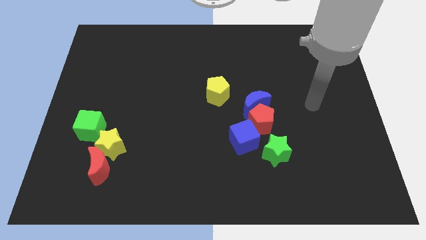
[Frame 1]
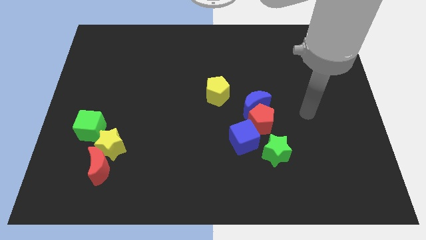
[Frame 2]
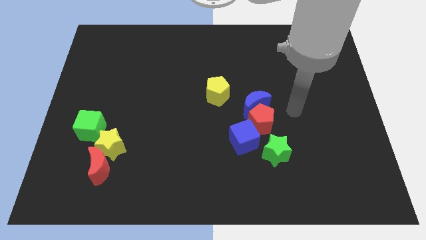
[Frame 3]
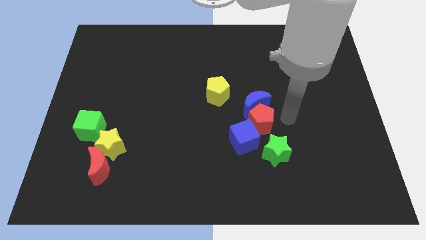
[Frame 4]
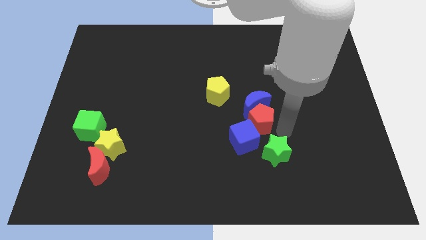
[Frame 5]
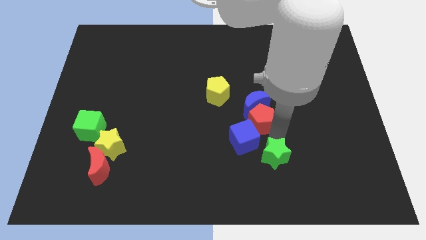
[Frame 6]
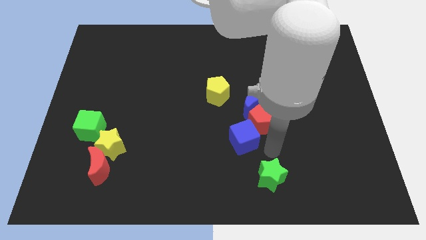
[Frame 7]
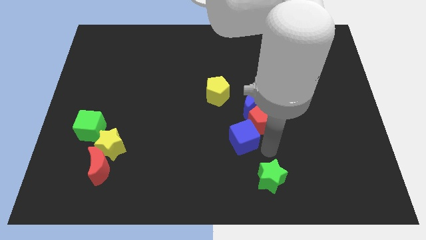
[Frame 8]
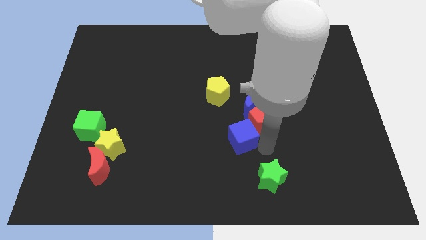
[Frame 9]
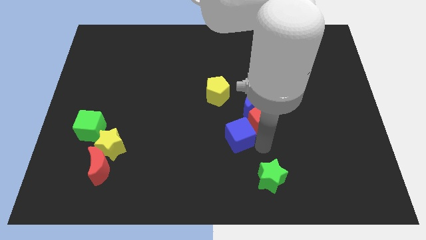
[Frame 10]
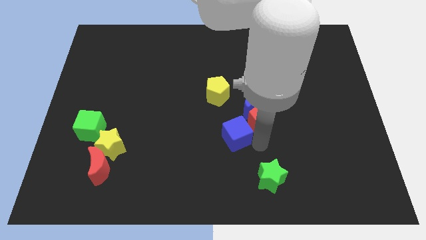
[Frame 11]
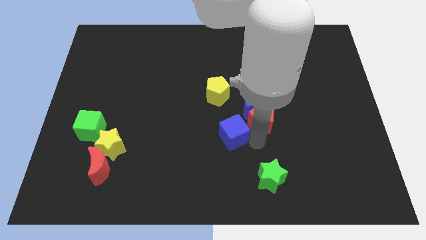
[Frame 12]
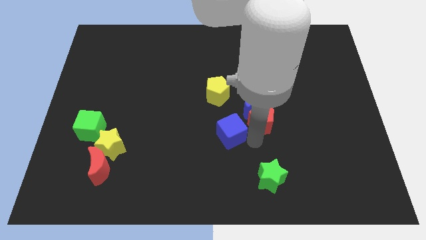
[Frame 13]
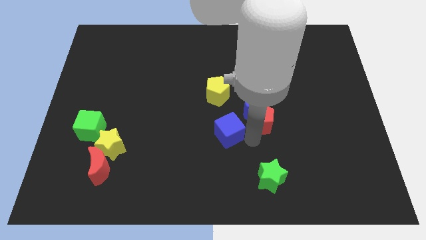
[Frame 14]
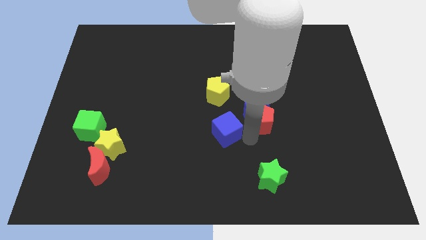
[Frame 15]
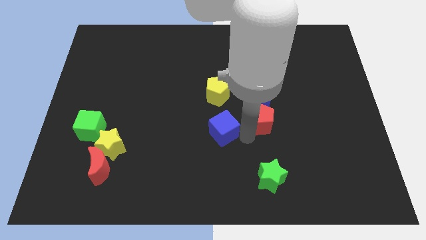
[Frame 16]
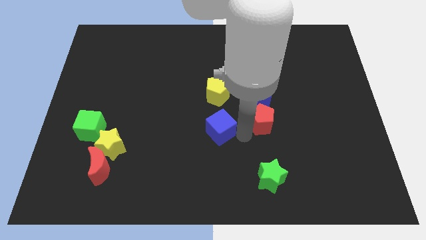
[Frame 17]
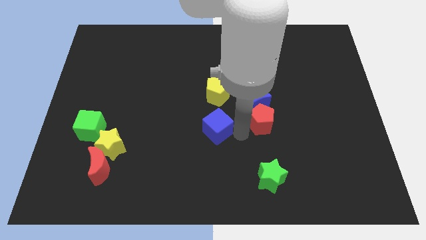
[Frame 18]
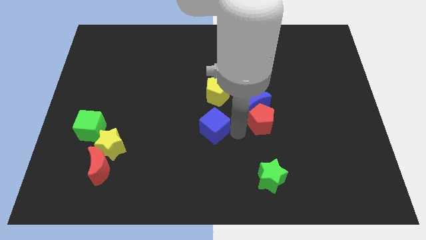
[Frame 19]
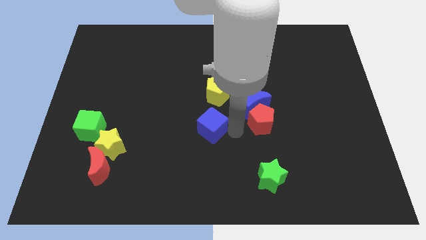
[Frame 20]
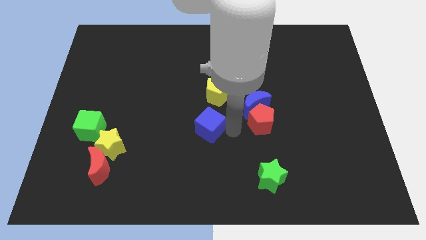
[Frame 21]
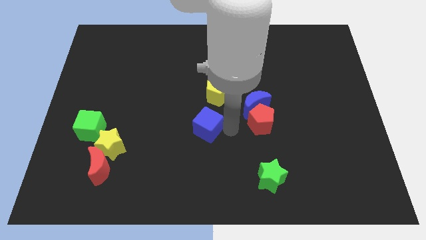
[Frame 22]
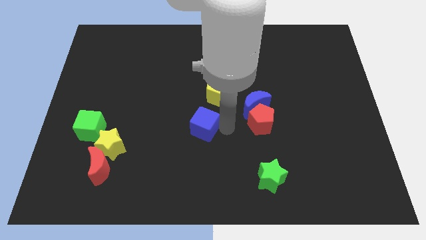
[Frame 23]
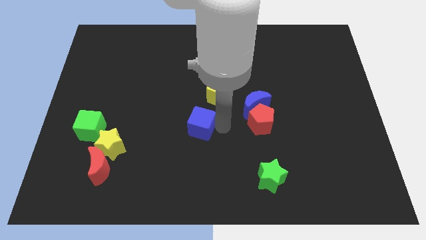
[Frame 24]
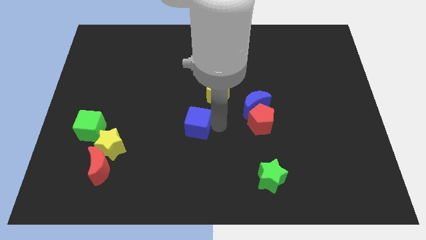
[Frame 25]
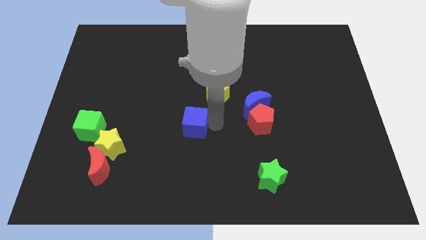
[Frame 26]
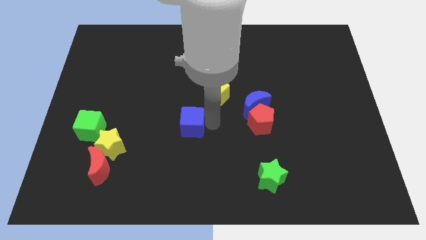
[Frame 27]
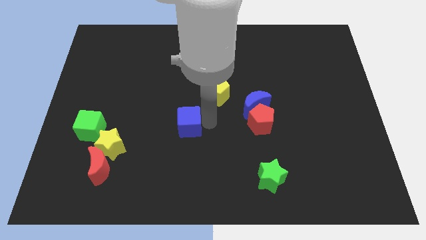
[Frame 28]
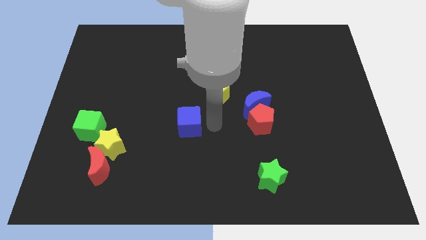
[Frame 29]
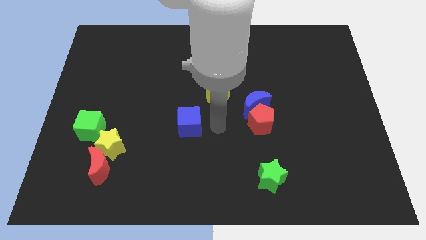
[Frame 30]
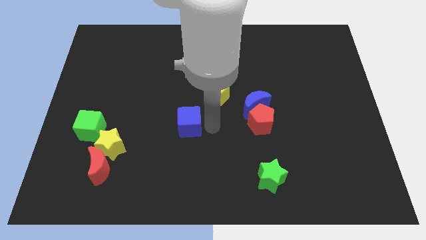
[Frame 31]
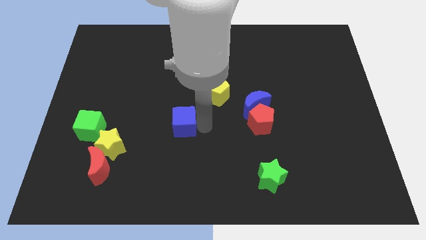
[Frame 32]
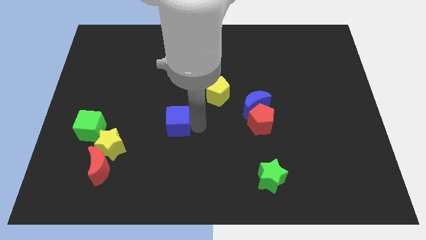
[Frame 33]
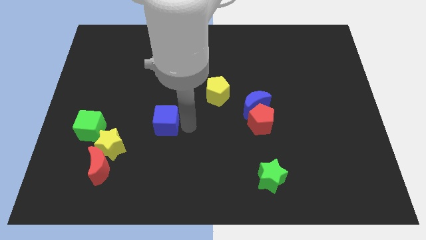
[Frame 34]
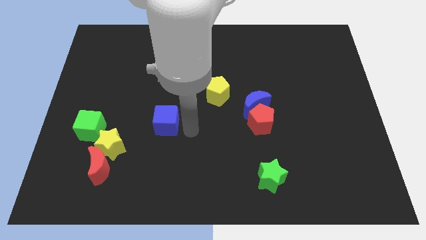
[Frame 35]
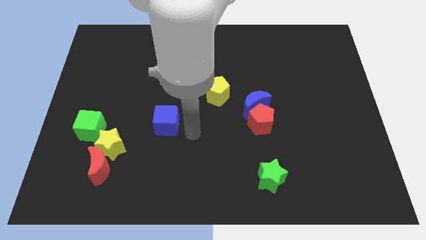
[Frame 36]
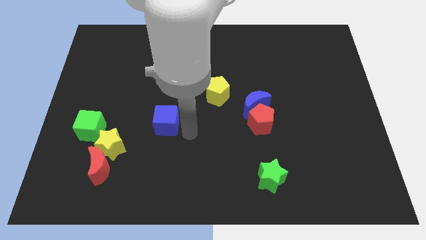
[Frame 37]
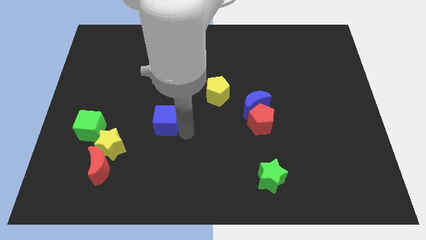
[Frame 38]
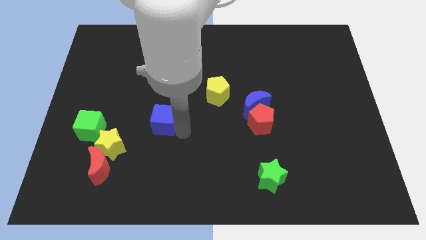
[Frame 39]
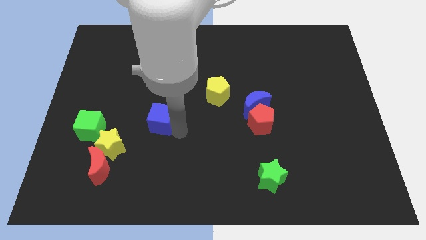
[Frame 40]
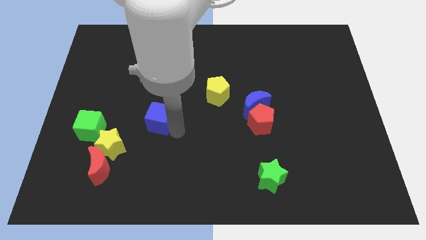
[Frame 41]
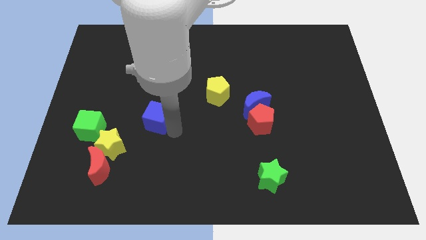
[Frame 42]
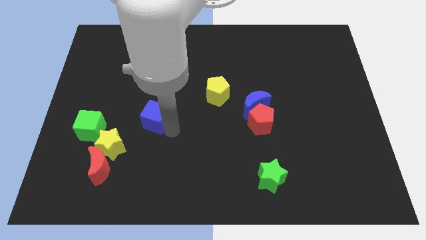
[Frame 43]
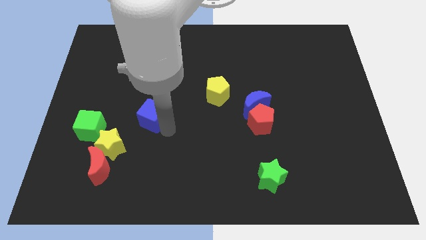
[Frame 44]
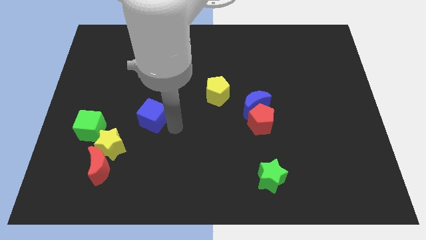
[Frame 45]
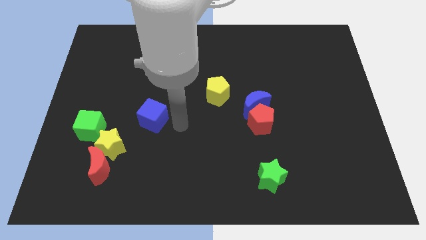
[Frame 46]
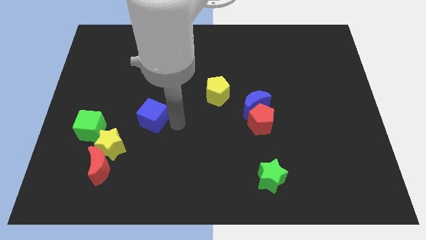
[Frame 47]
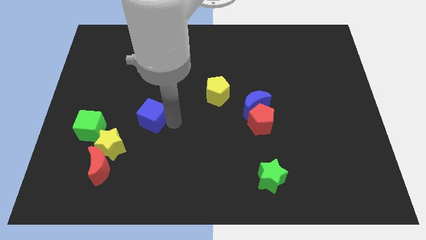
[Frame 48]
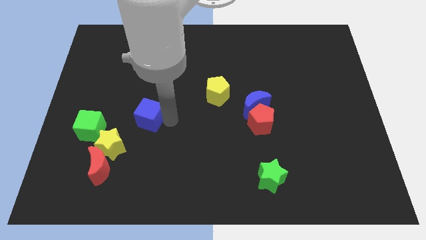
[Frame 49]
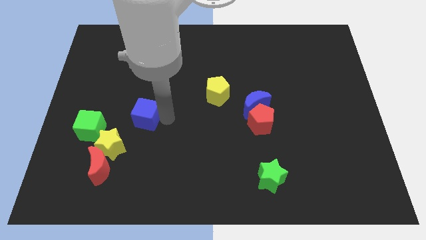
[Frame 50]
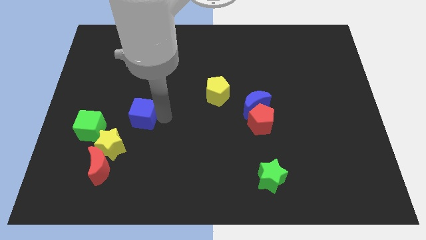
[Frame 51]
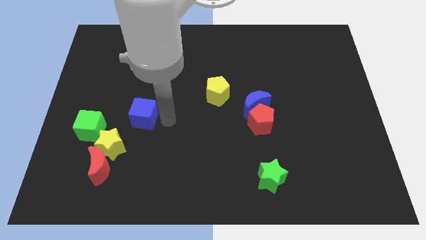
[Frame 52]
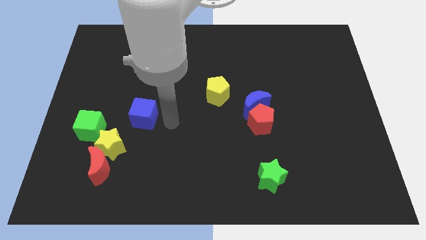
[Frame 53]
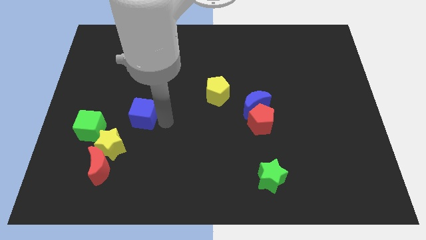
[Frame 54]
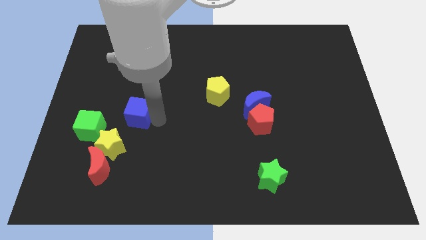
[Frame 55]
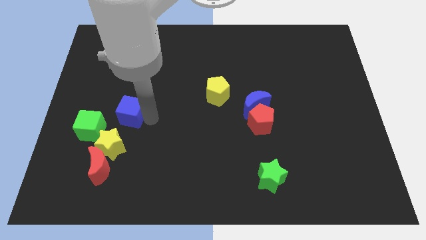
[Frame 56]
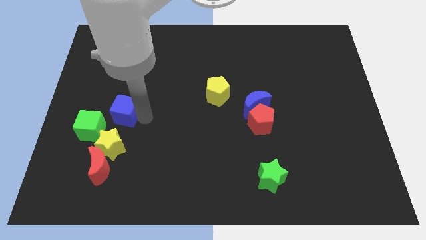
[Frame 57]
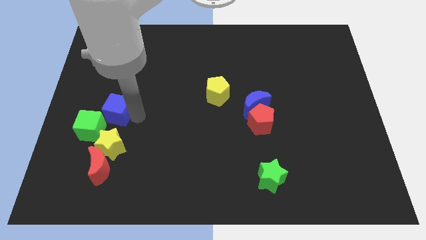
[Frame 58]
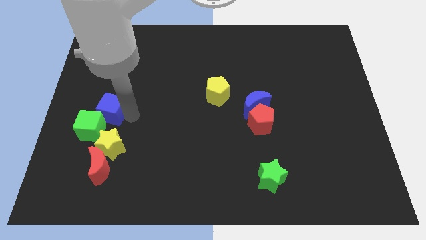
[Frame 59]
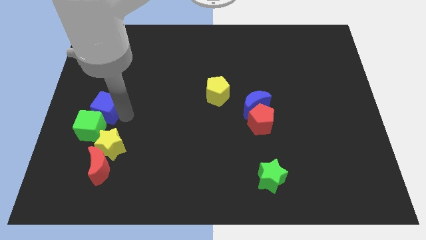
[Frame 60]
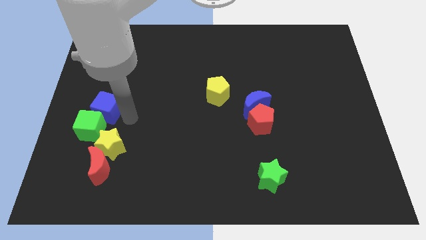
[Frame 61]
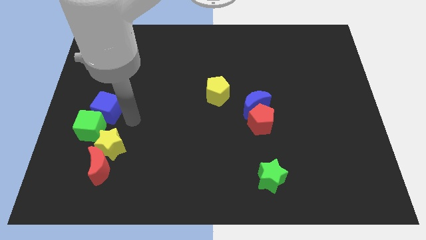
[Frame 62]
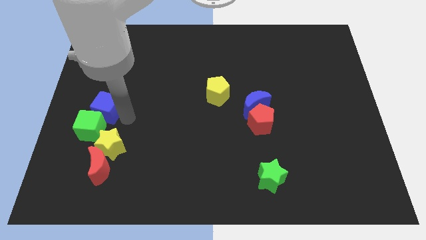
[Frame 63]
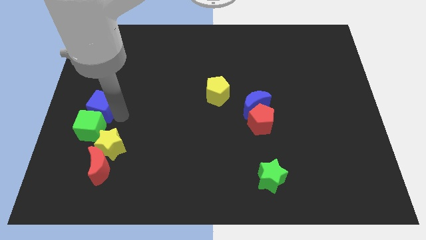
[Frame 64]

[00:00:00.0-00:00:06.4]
move the blue cube to the center left

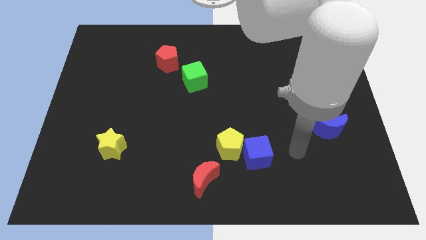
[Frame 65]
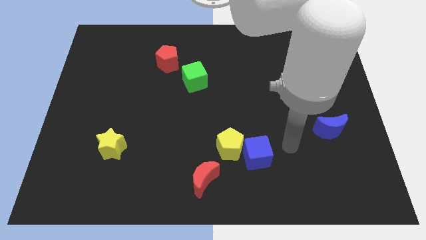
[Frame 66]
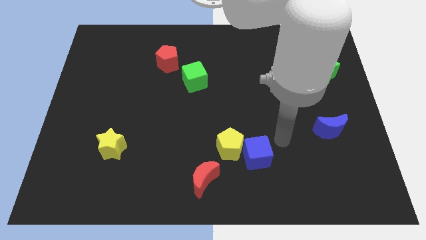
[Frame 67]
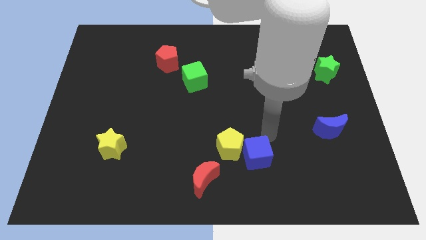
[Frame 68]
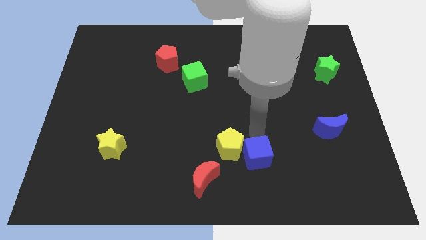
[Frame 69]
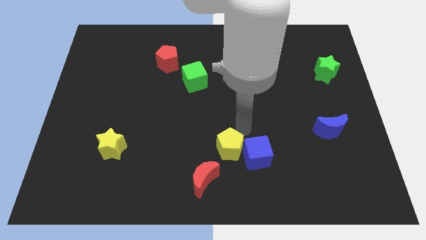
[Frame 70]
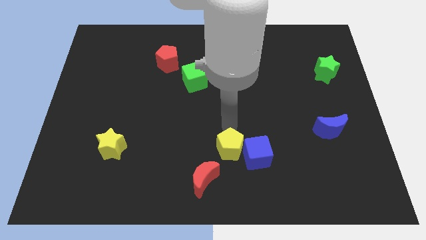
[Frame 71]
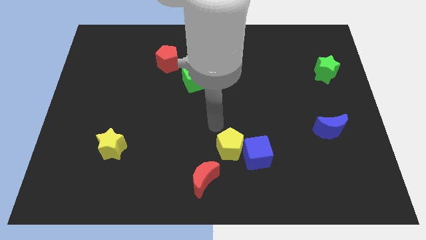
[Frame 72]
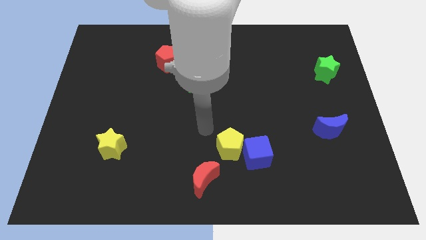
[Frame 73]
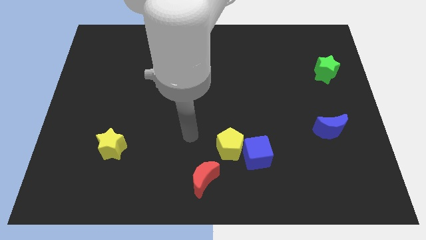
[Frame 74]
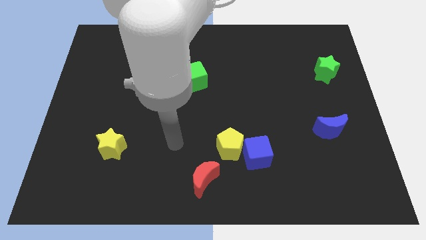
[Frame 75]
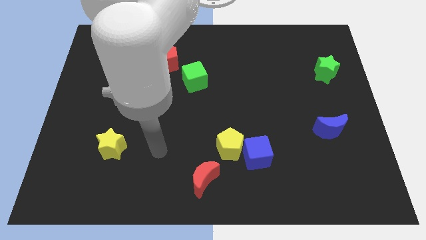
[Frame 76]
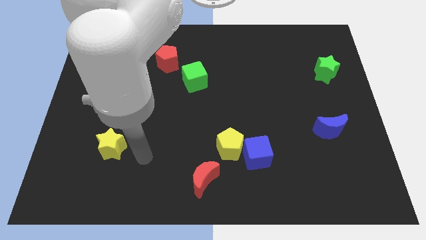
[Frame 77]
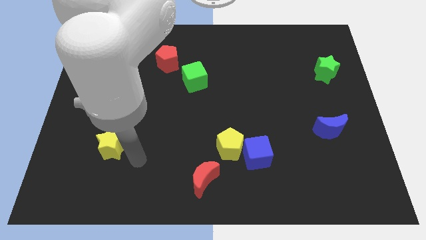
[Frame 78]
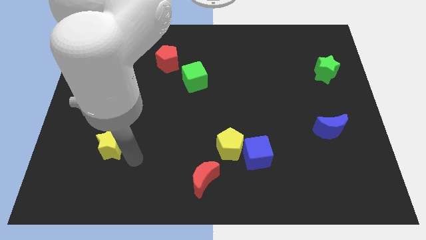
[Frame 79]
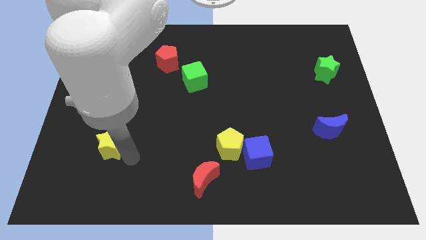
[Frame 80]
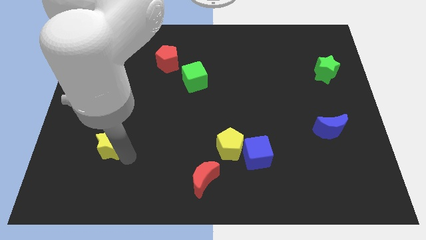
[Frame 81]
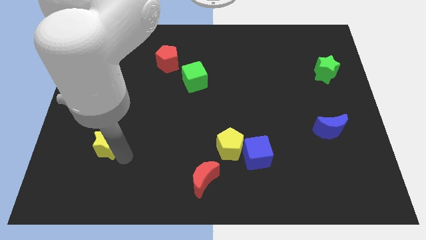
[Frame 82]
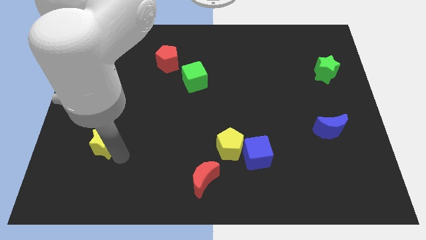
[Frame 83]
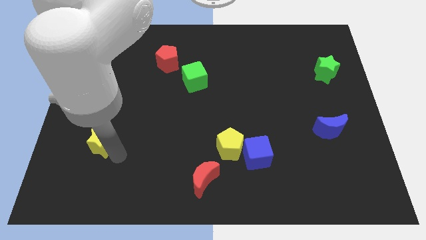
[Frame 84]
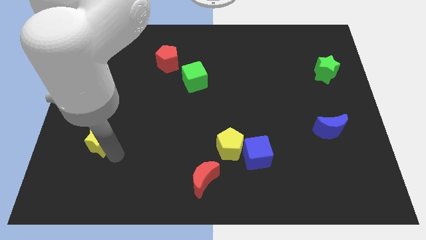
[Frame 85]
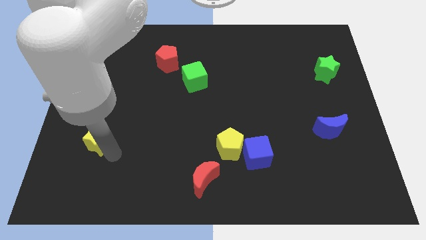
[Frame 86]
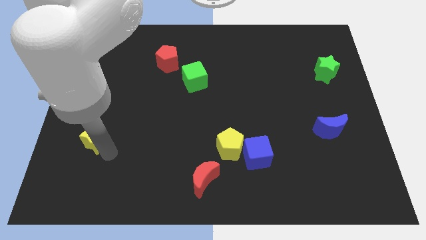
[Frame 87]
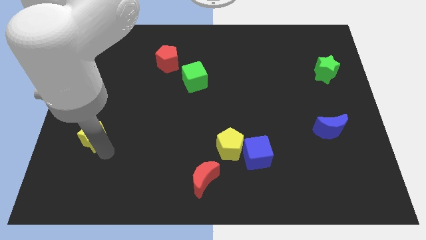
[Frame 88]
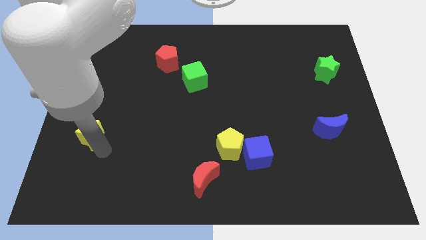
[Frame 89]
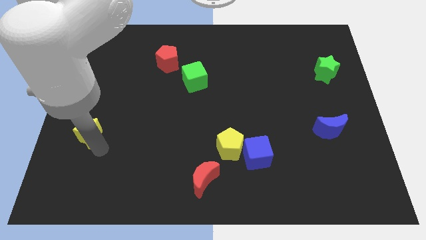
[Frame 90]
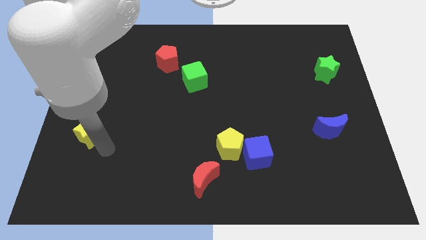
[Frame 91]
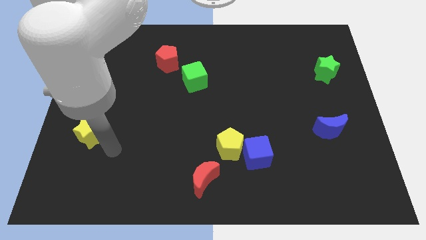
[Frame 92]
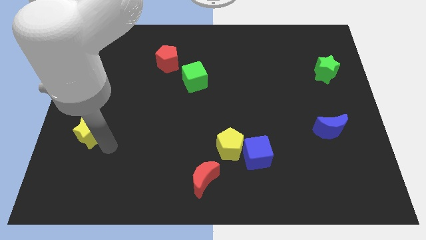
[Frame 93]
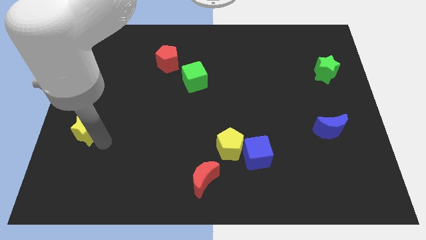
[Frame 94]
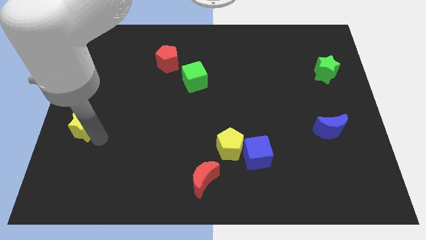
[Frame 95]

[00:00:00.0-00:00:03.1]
move the yellow star to the left side of the board
